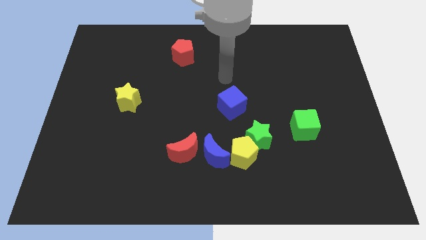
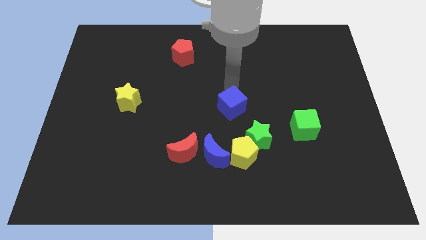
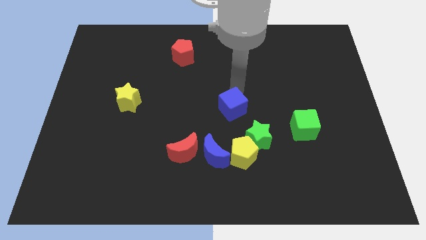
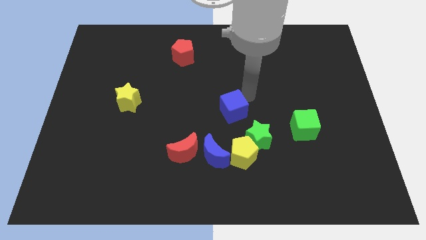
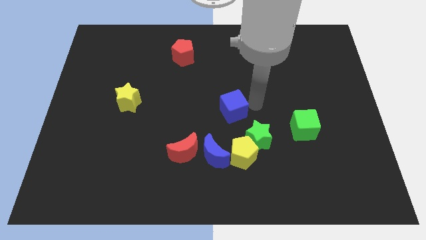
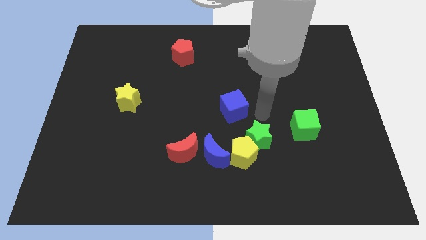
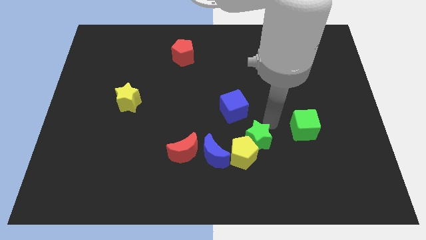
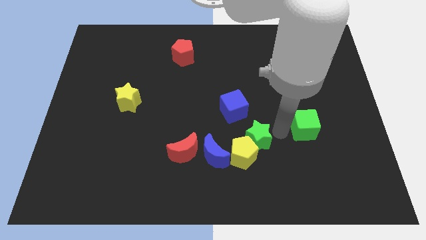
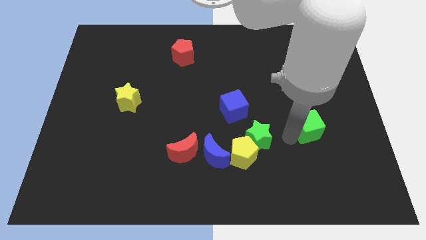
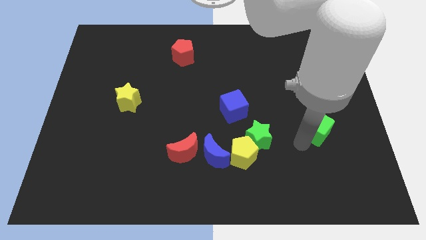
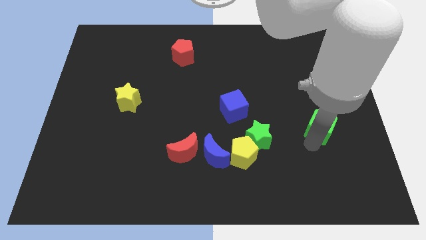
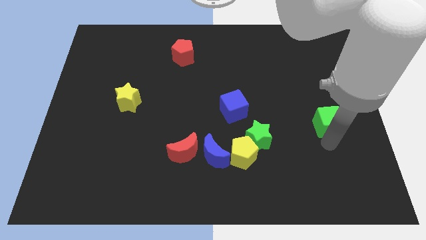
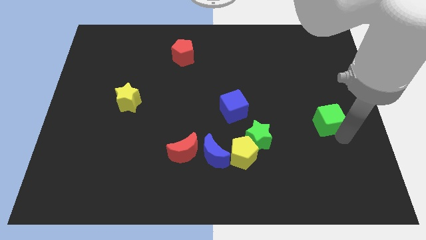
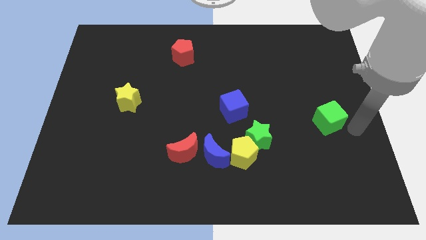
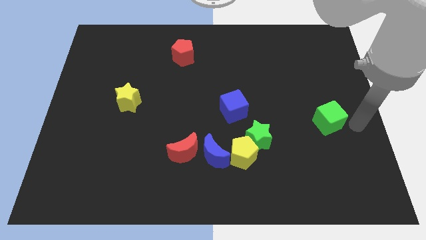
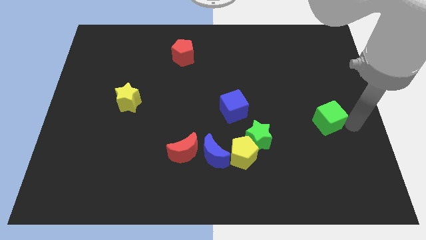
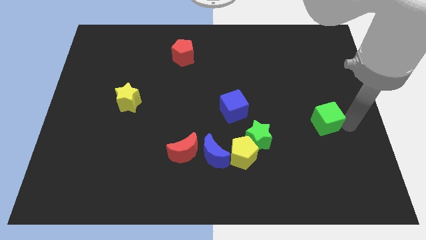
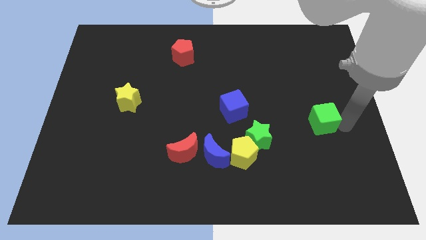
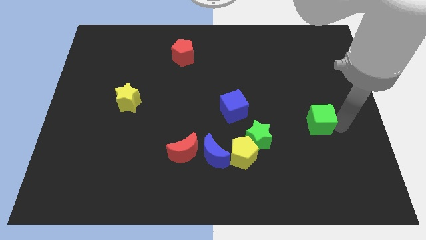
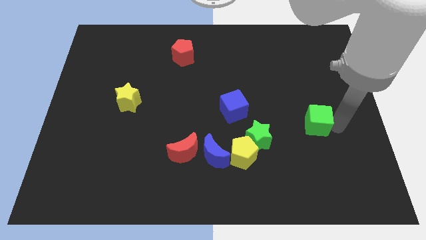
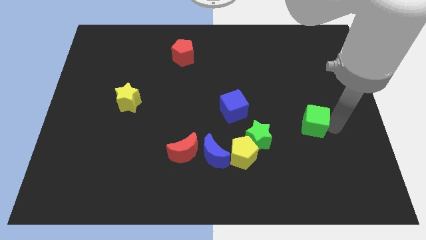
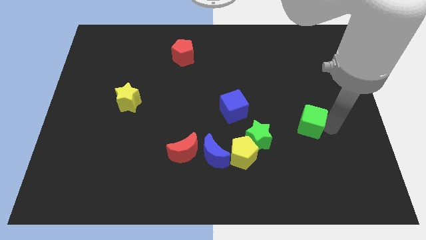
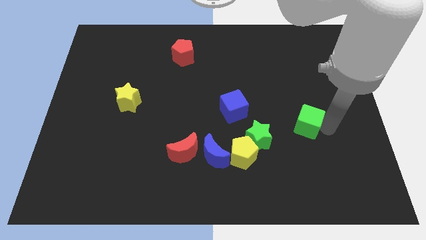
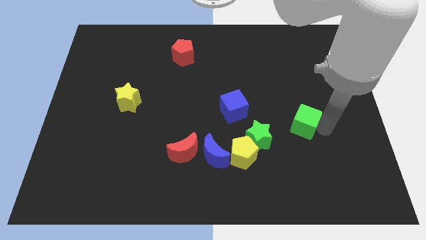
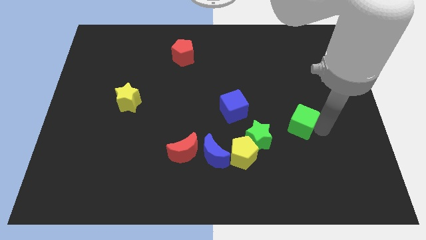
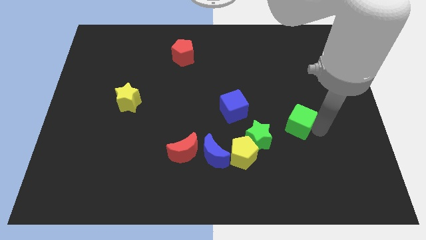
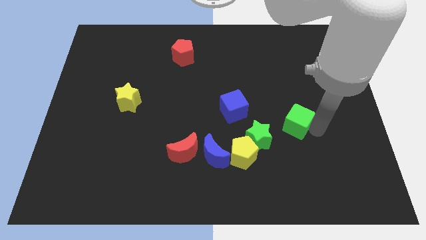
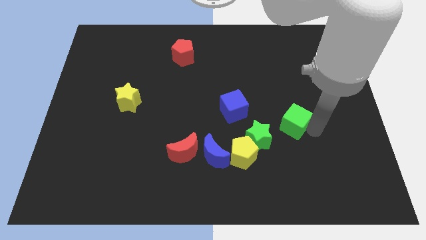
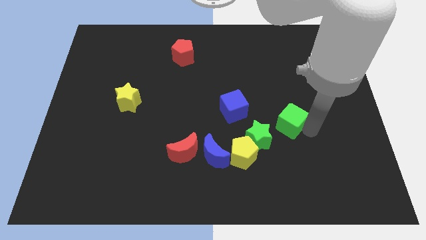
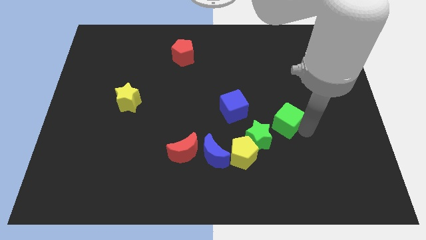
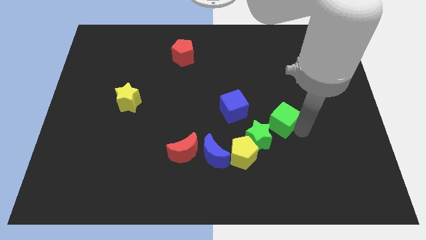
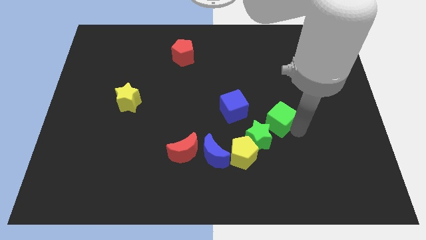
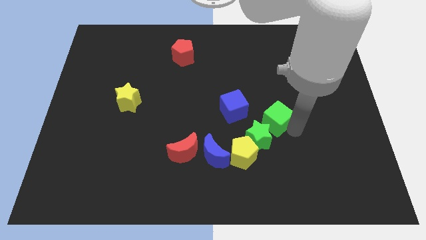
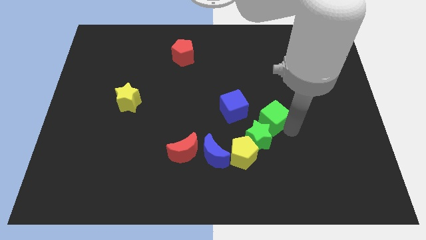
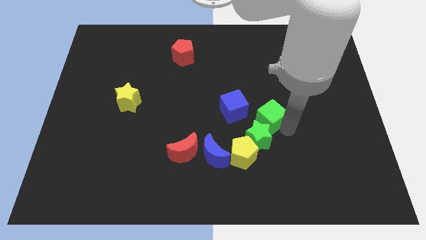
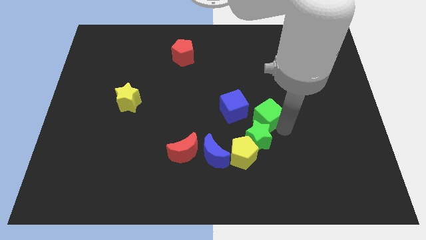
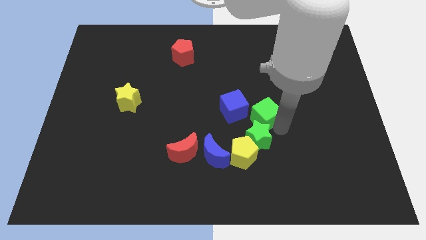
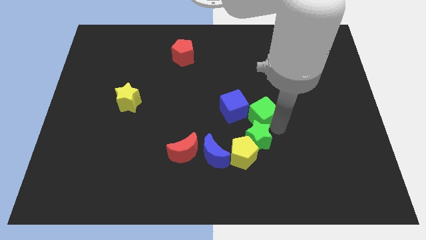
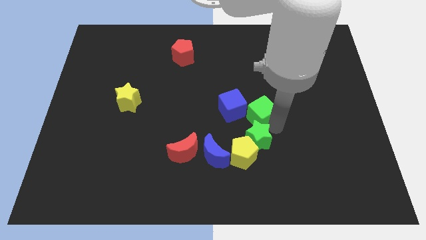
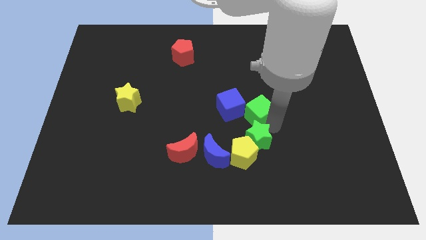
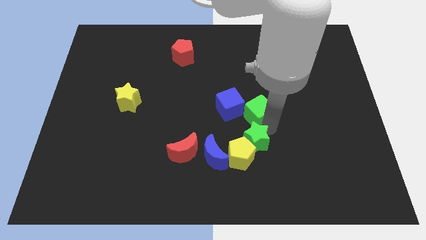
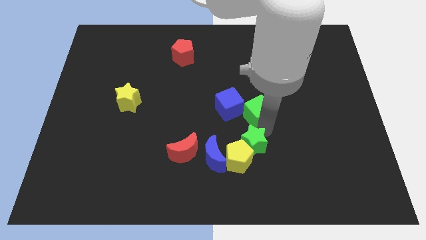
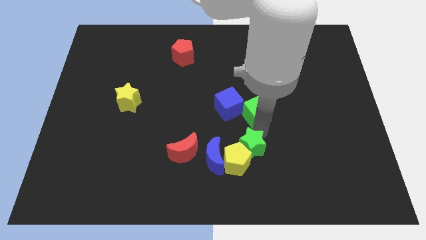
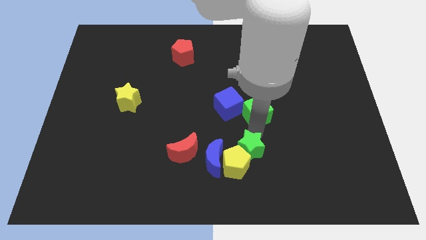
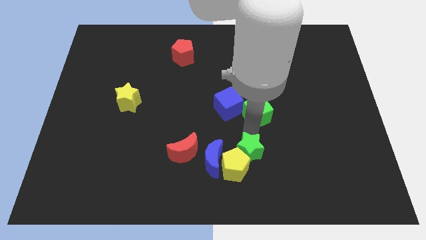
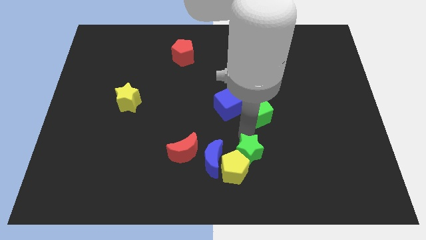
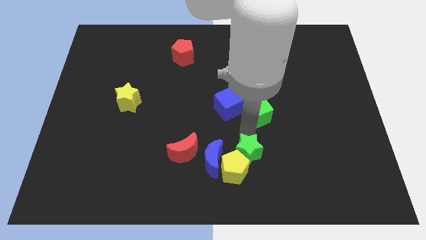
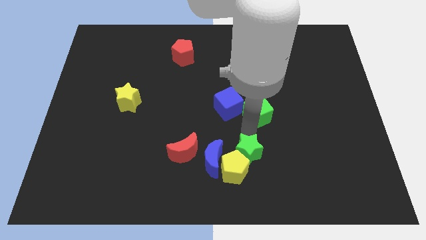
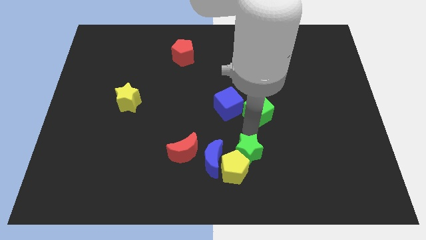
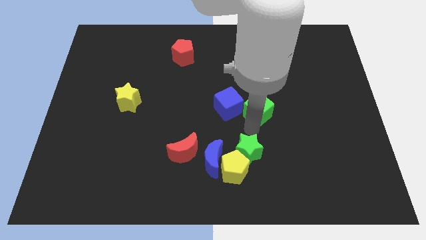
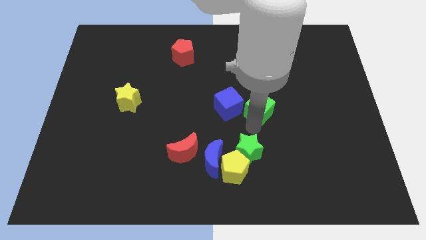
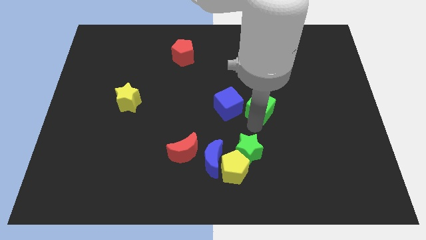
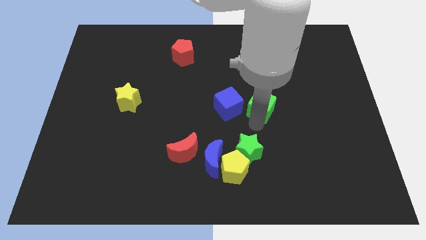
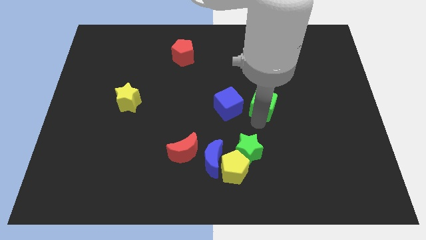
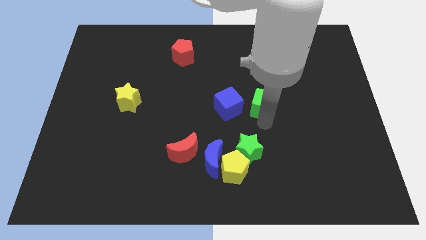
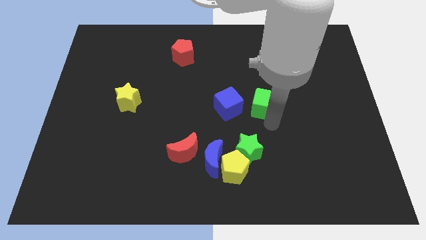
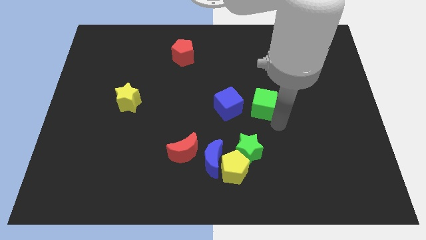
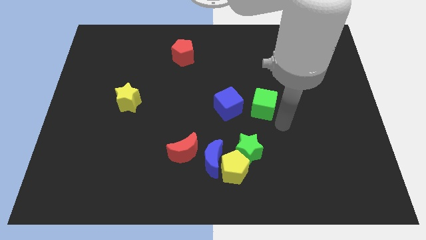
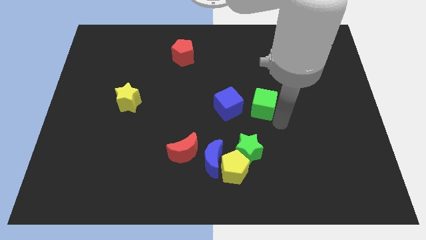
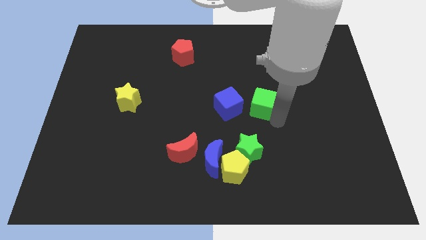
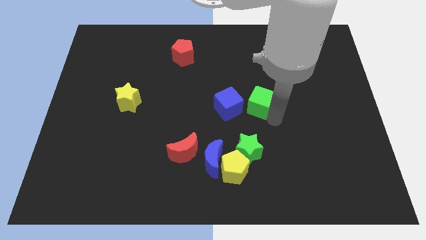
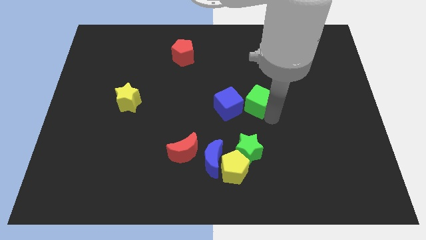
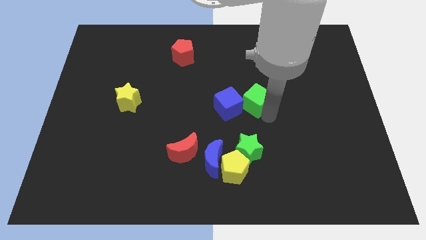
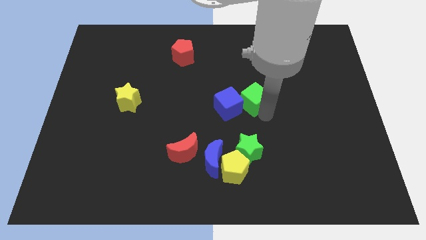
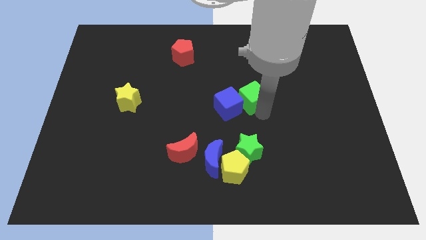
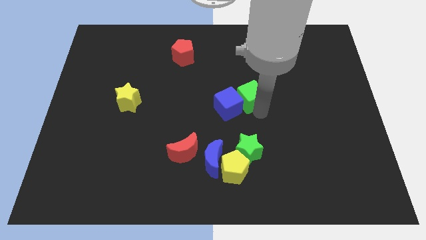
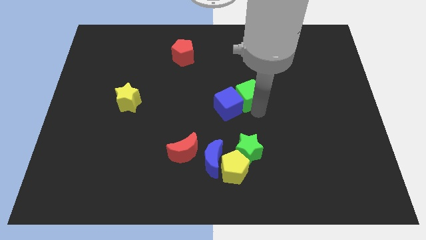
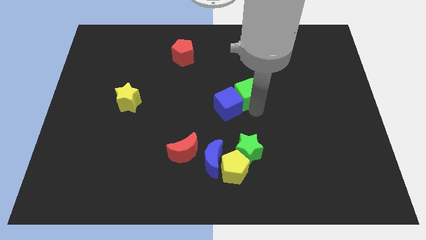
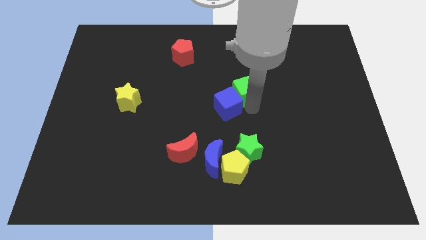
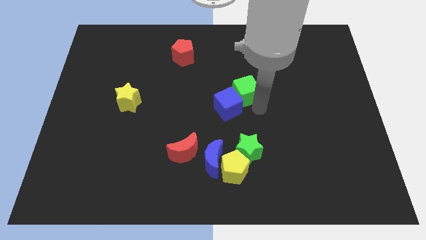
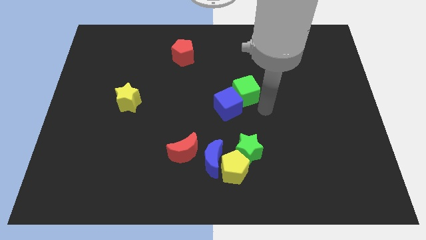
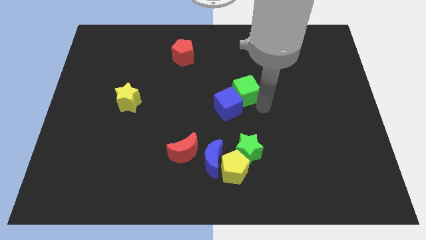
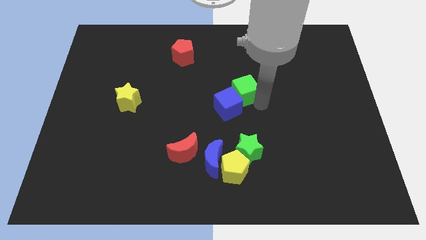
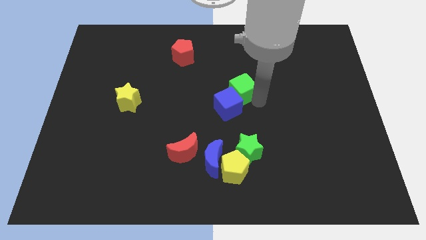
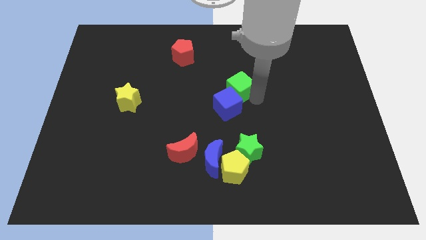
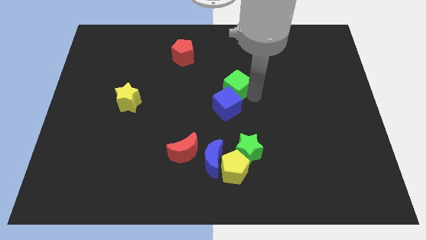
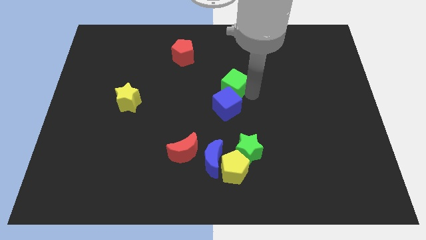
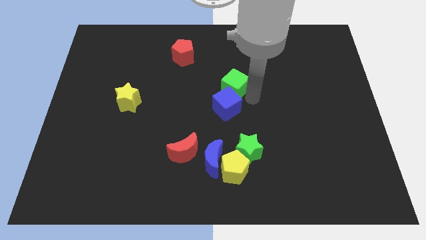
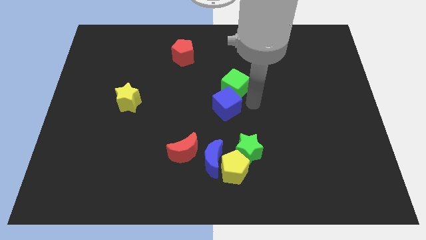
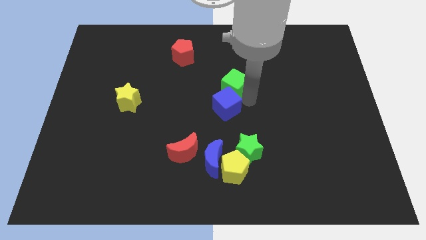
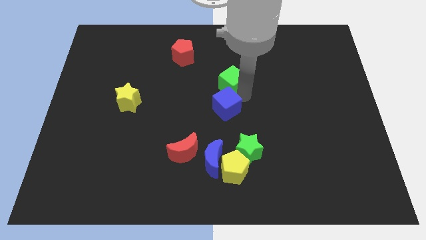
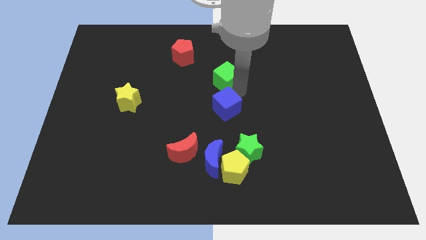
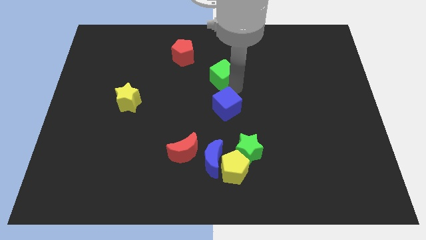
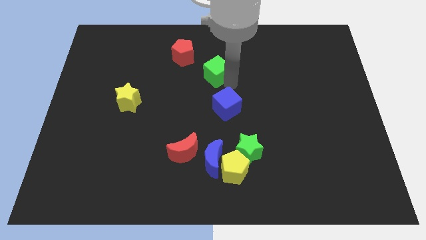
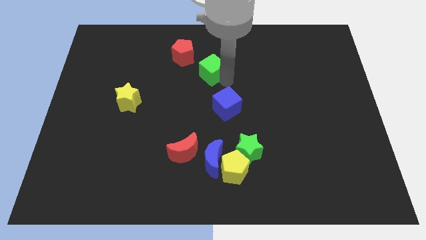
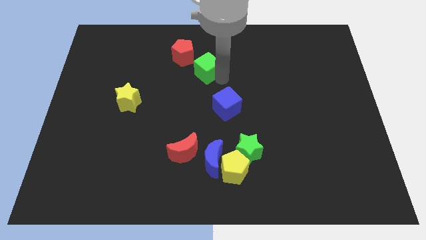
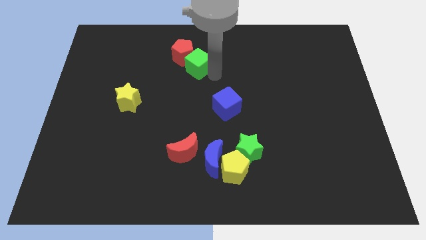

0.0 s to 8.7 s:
put the green cube towards the red pentagon
